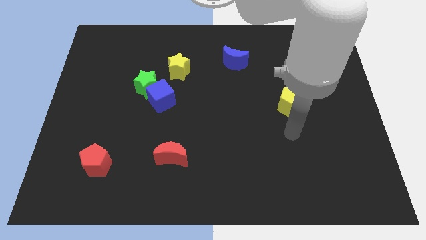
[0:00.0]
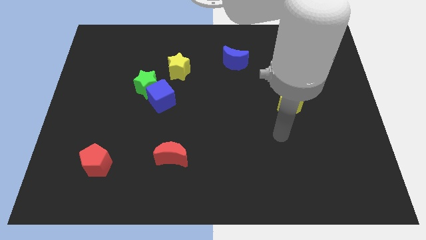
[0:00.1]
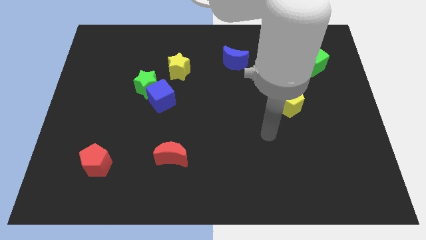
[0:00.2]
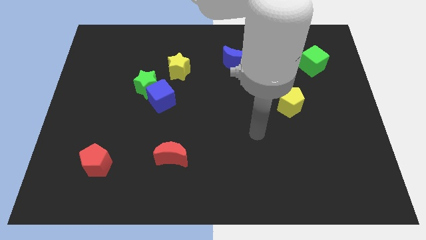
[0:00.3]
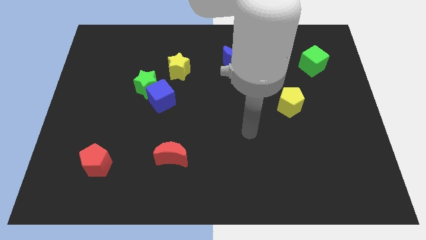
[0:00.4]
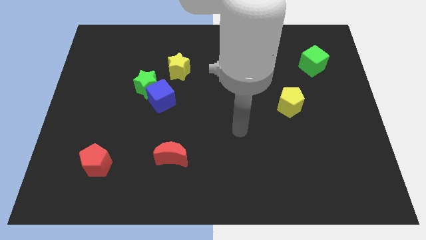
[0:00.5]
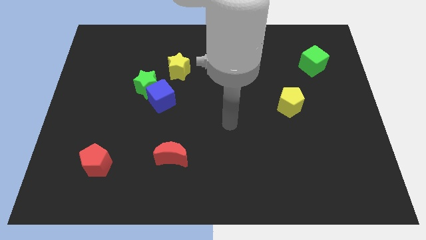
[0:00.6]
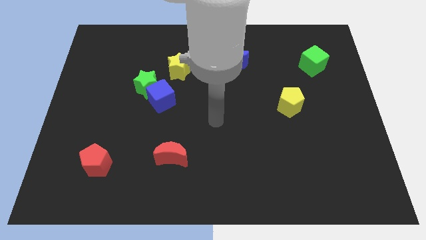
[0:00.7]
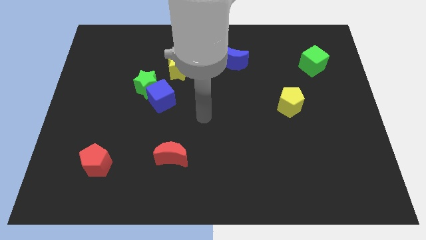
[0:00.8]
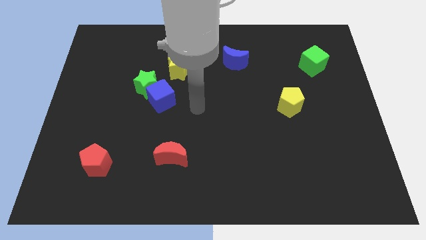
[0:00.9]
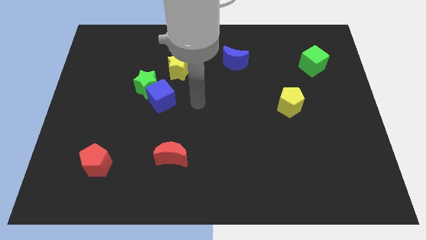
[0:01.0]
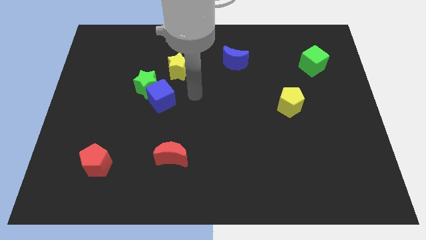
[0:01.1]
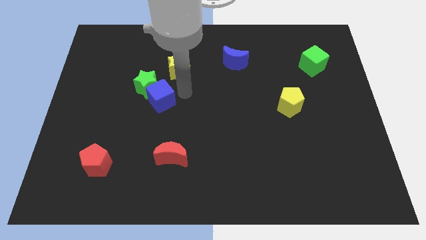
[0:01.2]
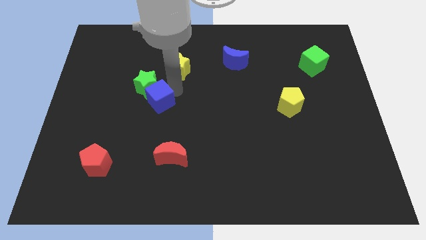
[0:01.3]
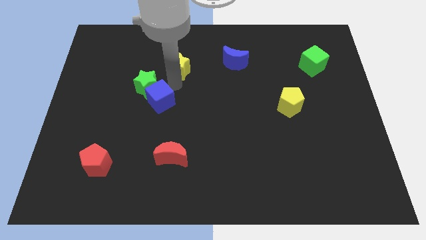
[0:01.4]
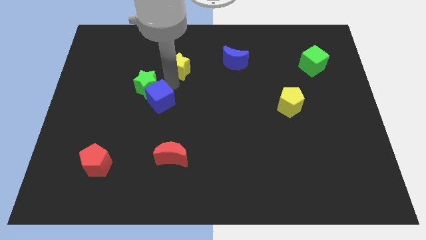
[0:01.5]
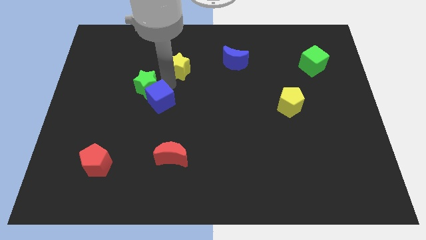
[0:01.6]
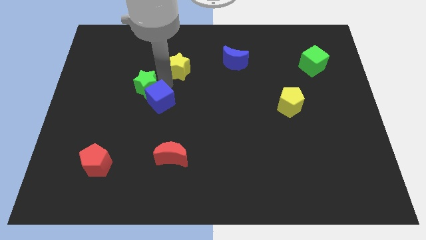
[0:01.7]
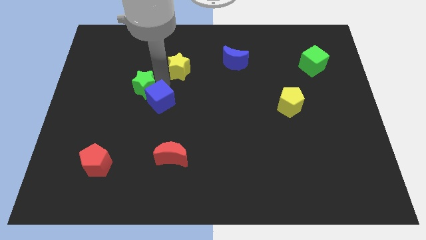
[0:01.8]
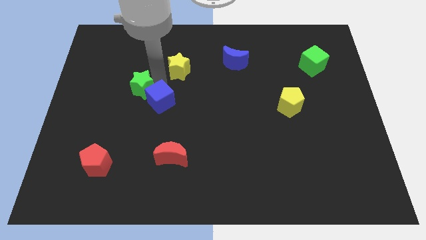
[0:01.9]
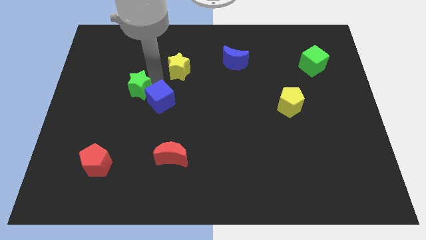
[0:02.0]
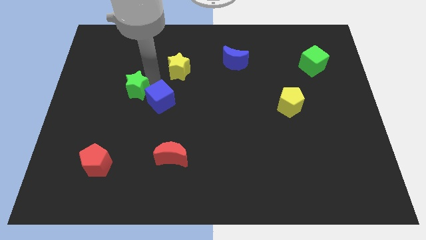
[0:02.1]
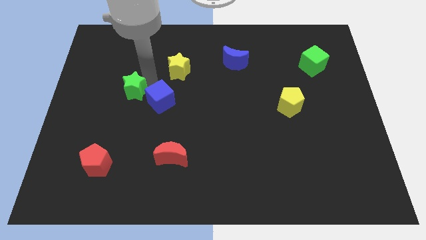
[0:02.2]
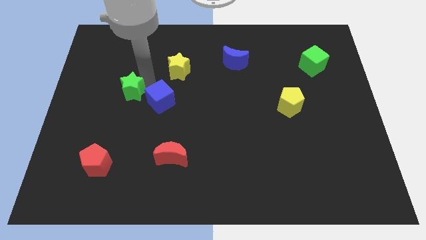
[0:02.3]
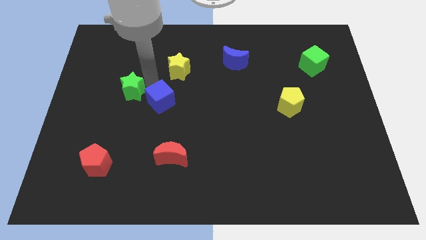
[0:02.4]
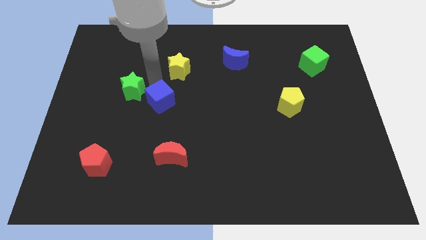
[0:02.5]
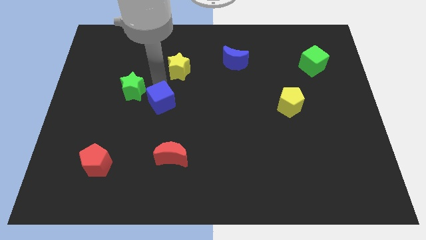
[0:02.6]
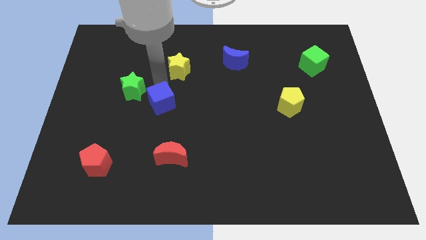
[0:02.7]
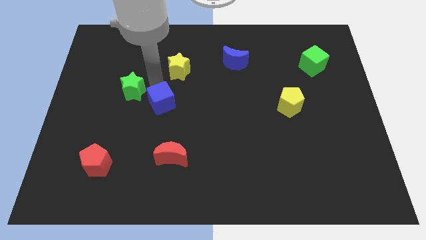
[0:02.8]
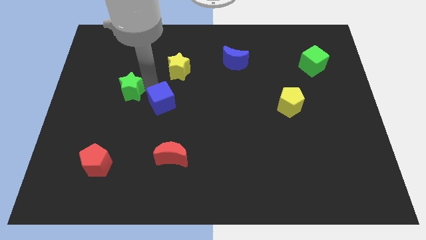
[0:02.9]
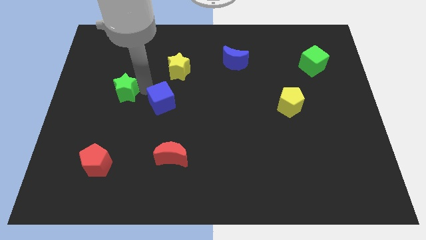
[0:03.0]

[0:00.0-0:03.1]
pull the green star apart from the blue cube and yellow star

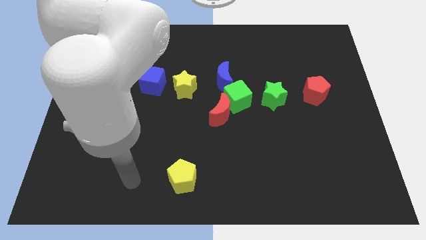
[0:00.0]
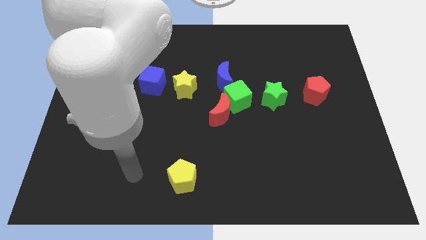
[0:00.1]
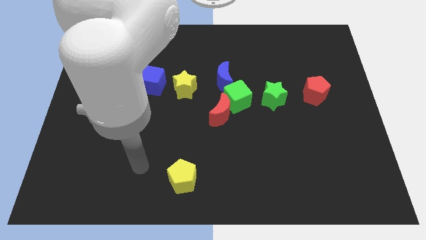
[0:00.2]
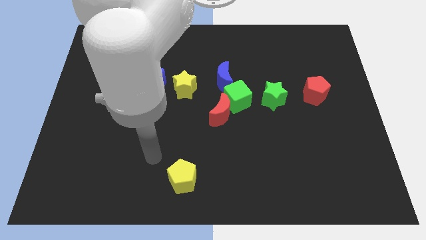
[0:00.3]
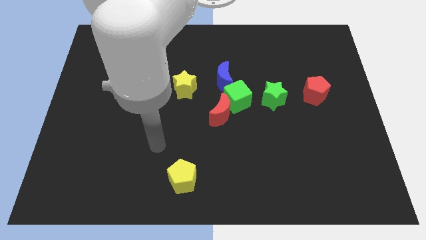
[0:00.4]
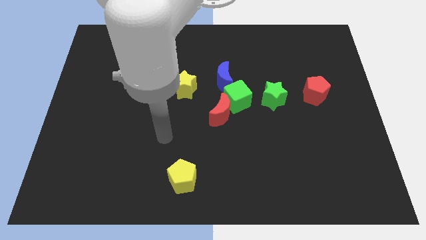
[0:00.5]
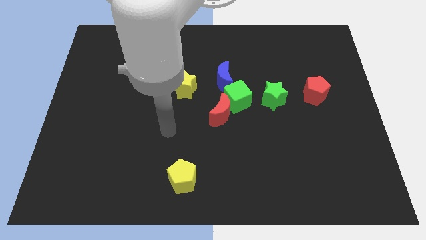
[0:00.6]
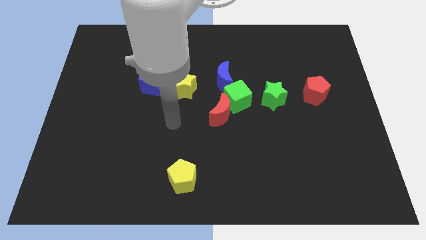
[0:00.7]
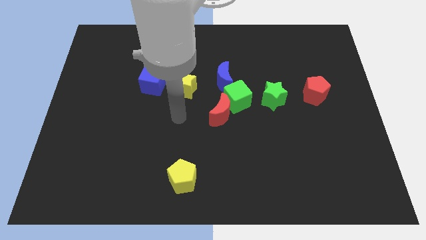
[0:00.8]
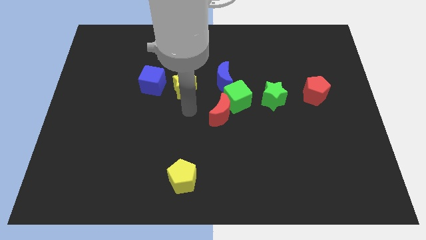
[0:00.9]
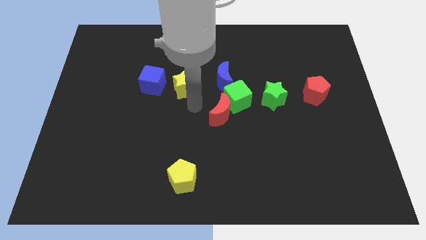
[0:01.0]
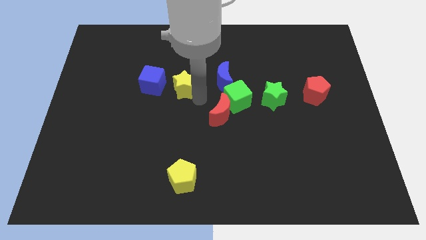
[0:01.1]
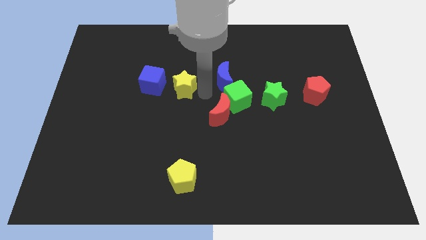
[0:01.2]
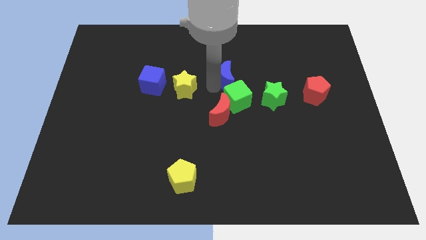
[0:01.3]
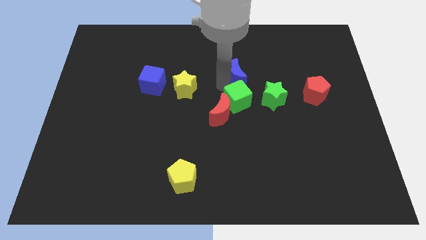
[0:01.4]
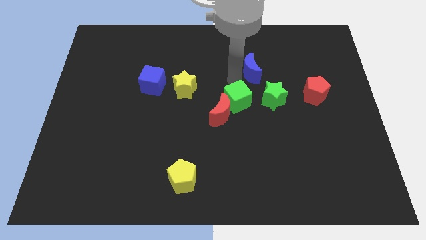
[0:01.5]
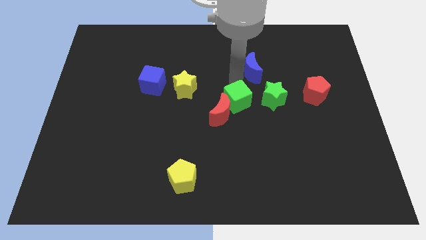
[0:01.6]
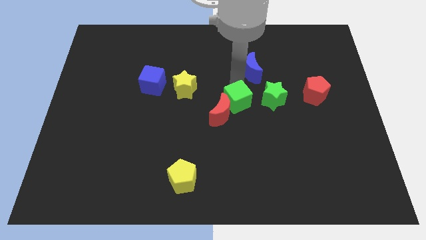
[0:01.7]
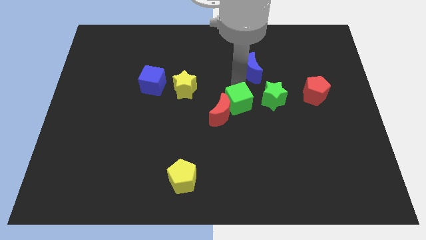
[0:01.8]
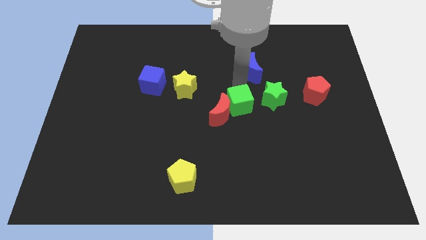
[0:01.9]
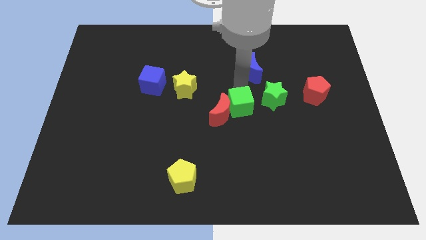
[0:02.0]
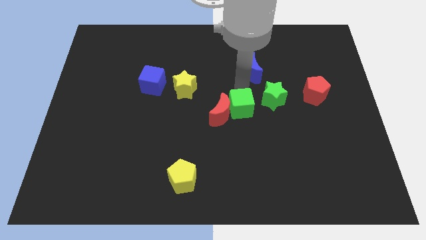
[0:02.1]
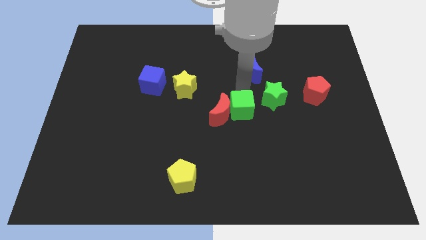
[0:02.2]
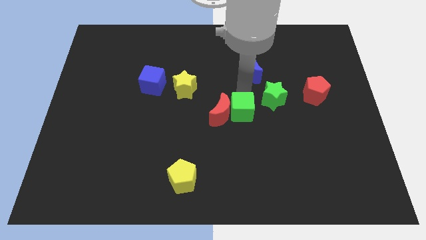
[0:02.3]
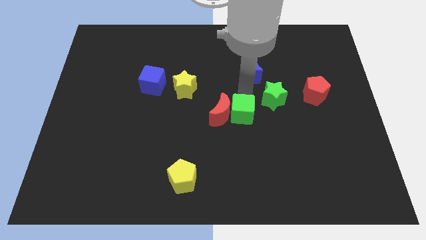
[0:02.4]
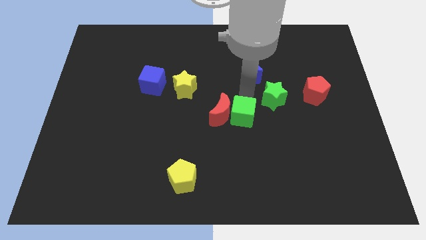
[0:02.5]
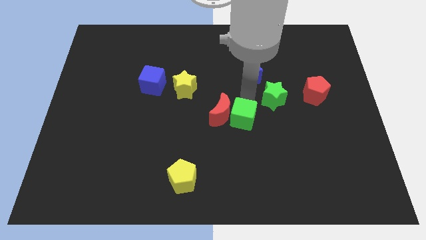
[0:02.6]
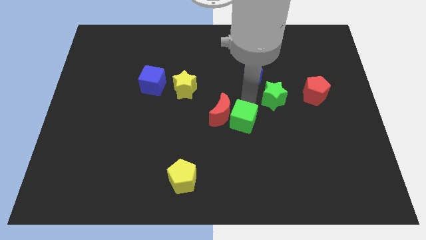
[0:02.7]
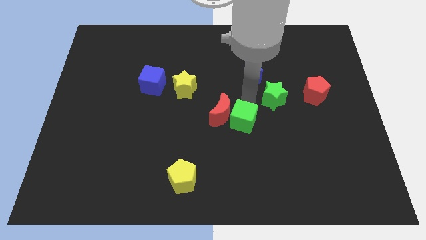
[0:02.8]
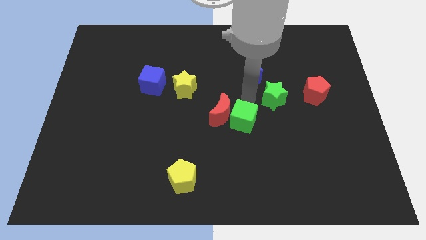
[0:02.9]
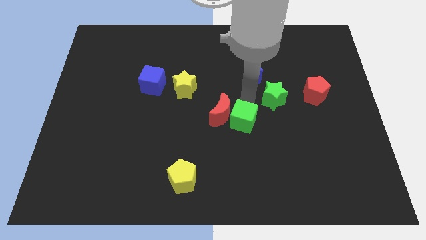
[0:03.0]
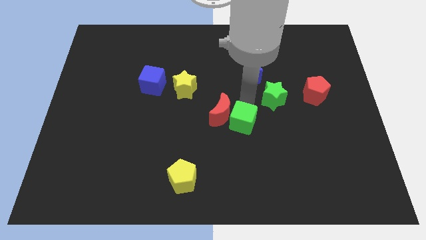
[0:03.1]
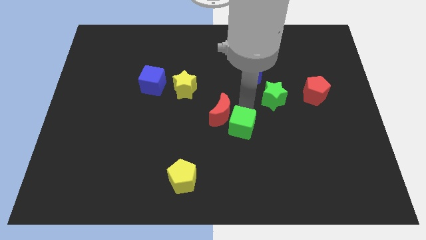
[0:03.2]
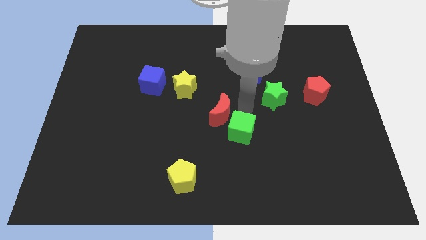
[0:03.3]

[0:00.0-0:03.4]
pull the green cube apart from the red moon, blue moon, and green star

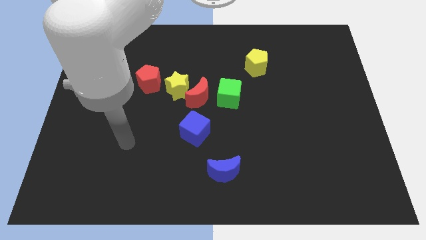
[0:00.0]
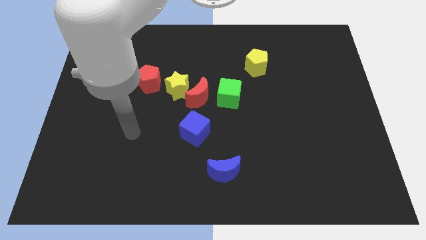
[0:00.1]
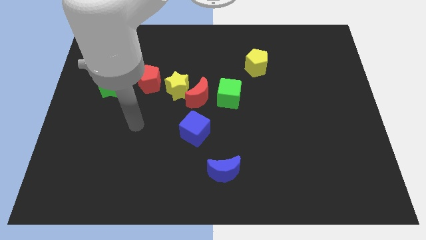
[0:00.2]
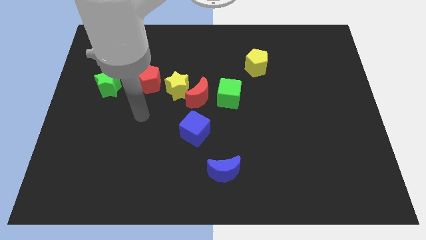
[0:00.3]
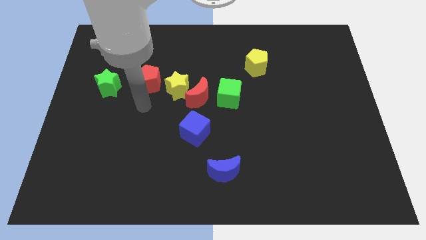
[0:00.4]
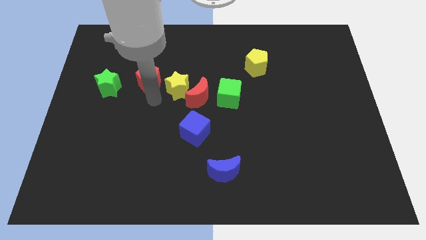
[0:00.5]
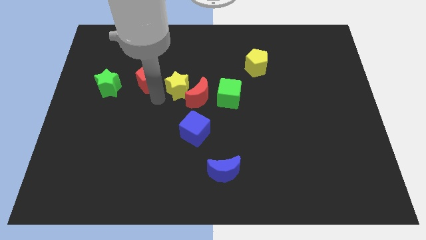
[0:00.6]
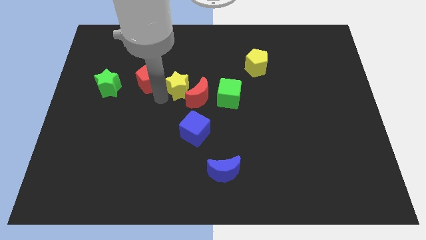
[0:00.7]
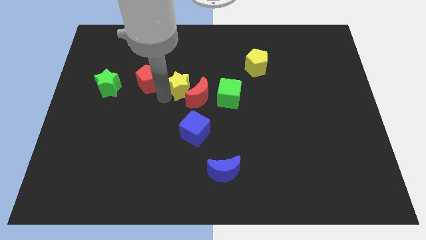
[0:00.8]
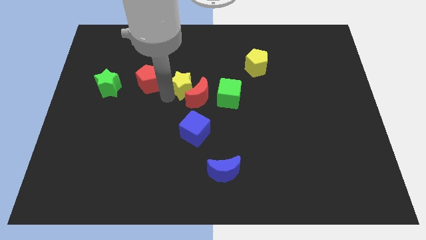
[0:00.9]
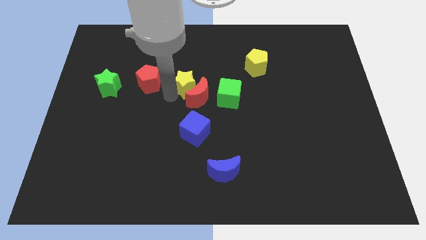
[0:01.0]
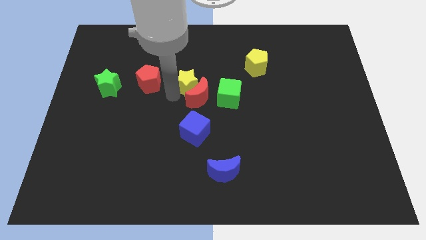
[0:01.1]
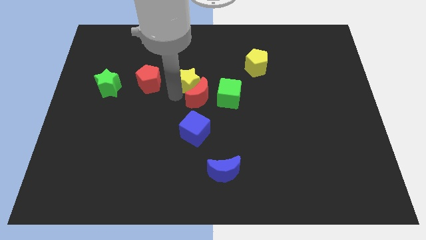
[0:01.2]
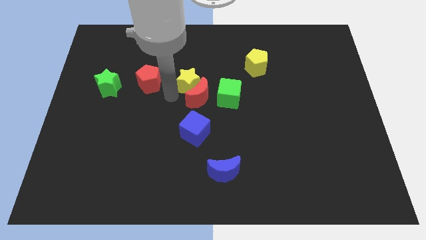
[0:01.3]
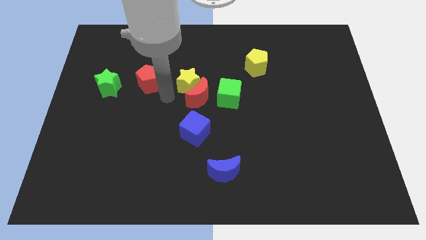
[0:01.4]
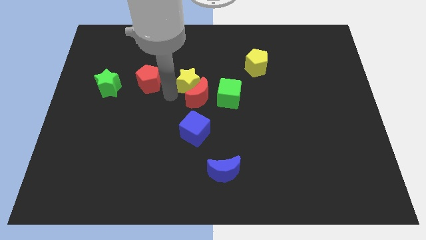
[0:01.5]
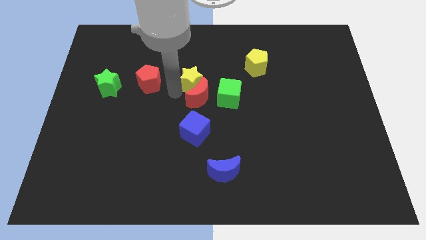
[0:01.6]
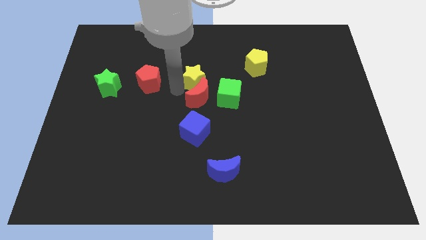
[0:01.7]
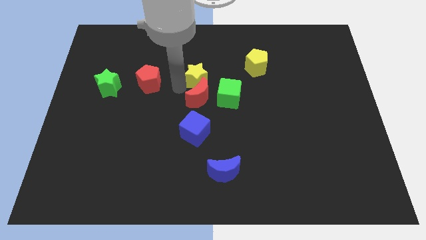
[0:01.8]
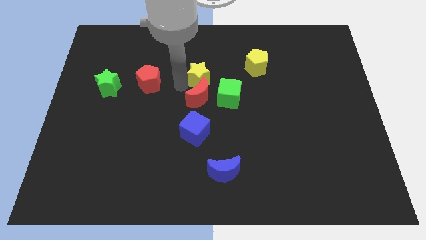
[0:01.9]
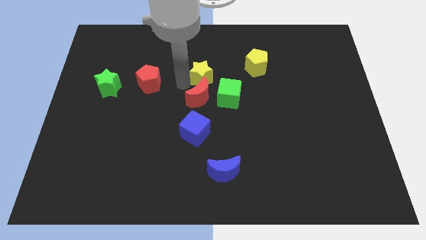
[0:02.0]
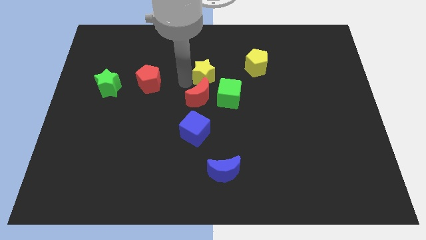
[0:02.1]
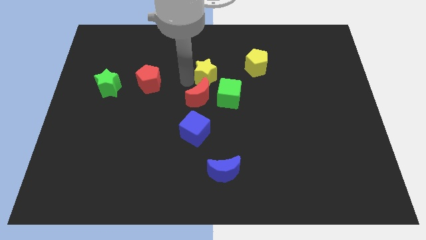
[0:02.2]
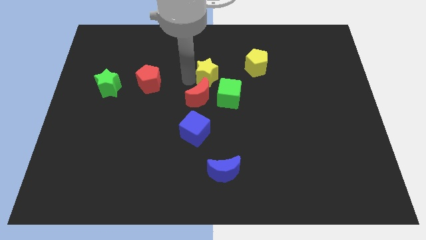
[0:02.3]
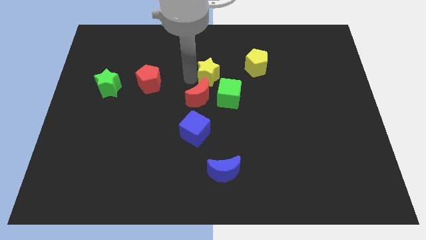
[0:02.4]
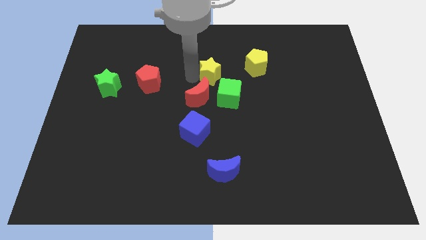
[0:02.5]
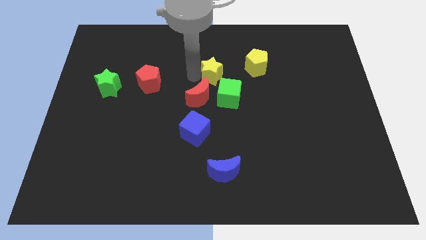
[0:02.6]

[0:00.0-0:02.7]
pull the yellow star apart from the red moon and red pentagon

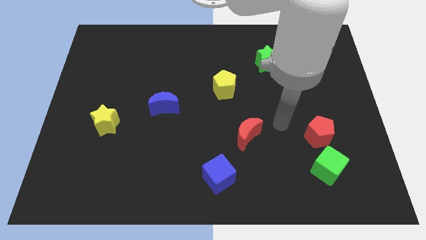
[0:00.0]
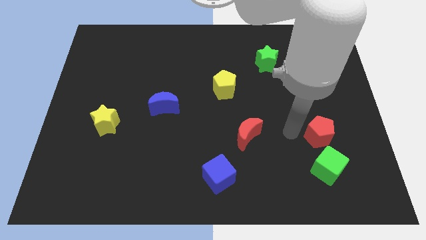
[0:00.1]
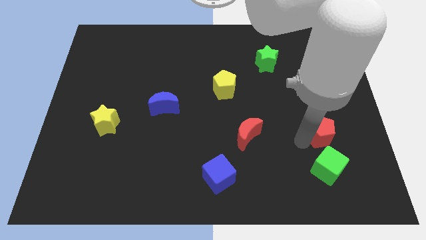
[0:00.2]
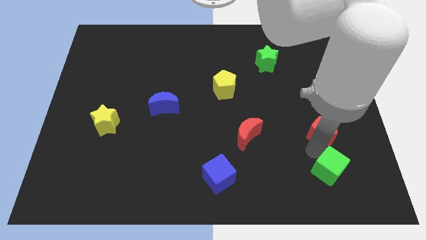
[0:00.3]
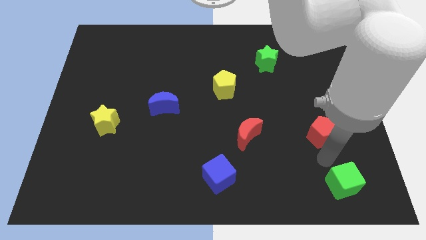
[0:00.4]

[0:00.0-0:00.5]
move the red pentagon away from the green cube
